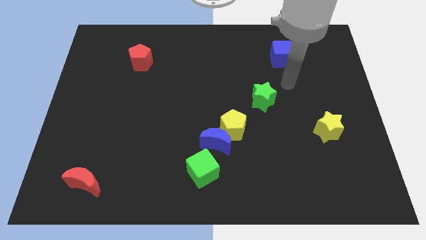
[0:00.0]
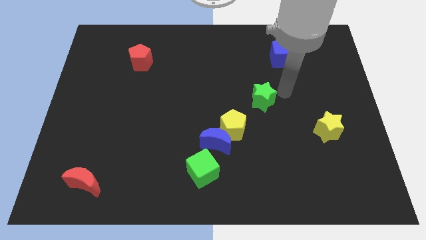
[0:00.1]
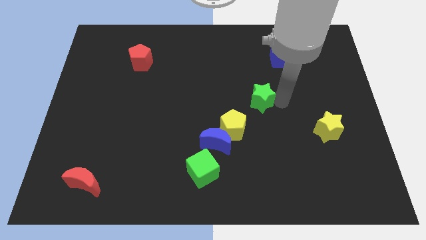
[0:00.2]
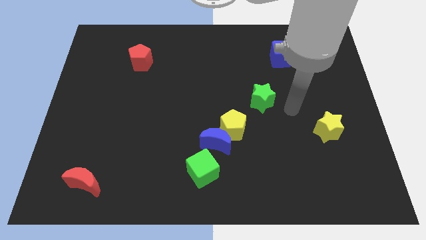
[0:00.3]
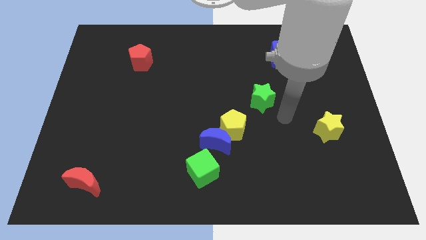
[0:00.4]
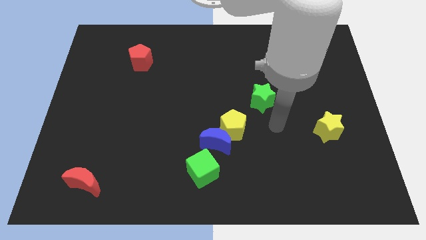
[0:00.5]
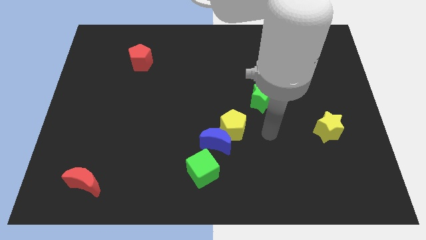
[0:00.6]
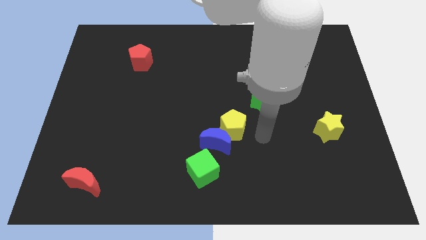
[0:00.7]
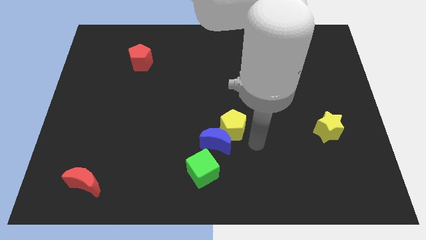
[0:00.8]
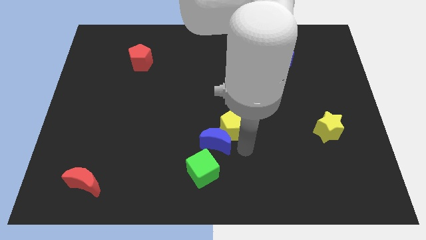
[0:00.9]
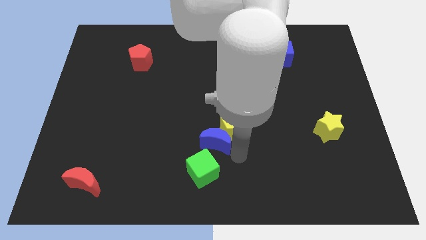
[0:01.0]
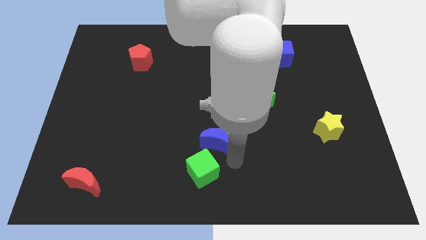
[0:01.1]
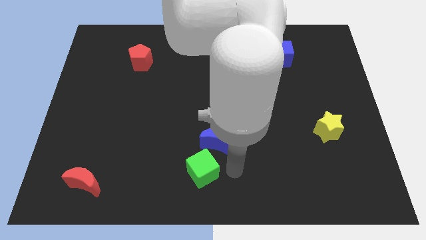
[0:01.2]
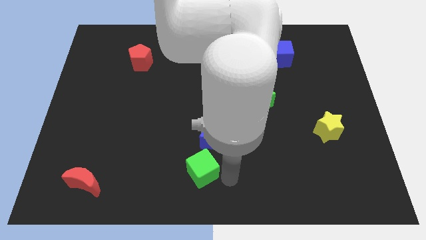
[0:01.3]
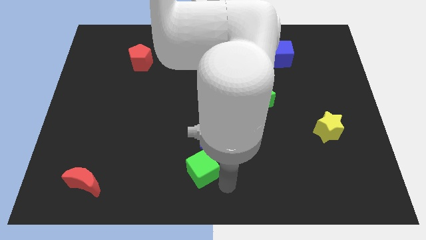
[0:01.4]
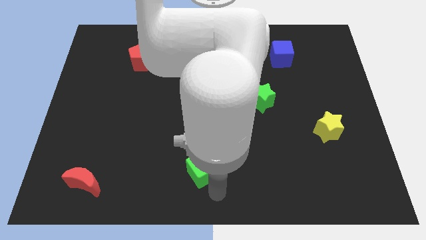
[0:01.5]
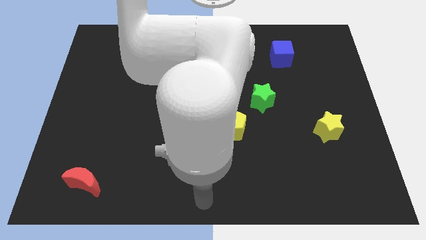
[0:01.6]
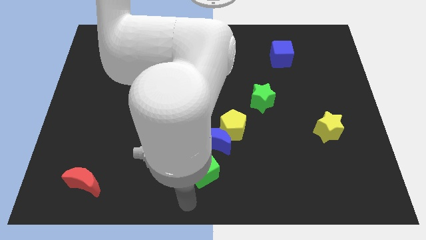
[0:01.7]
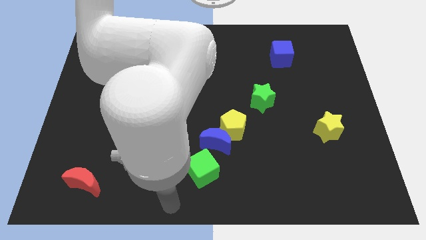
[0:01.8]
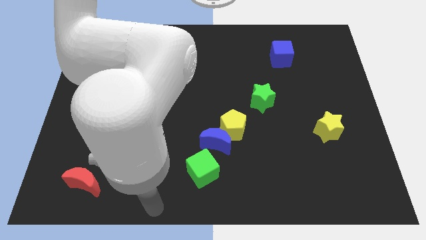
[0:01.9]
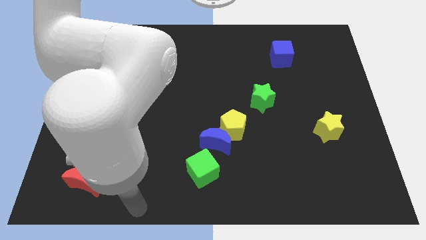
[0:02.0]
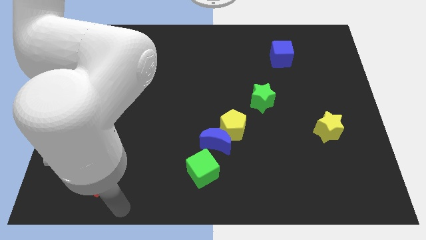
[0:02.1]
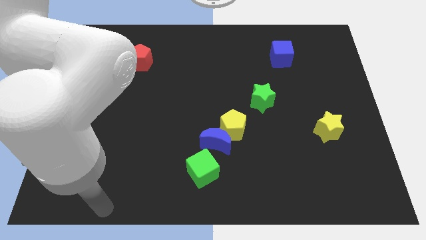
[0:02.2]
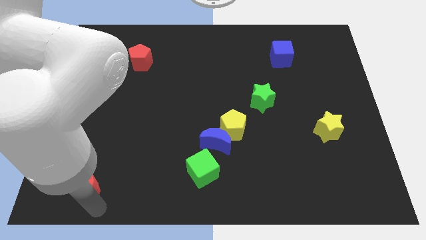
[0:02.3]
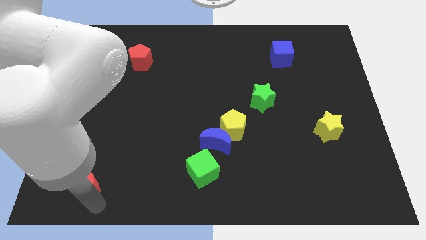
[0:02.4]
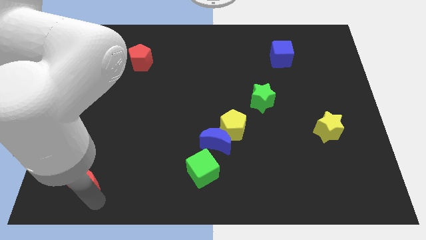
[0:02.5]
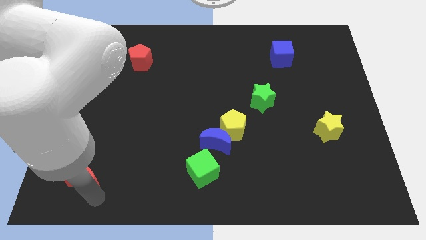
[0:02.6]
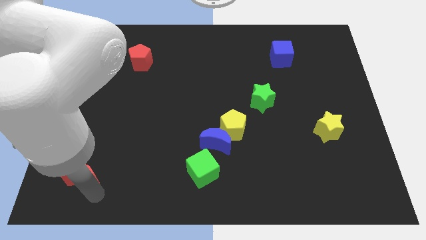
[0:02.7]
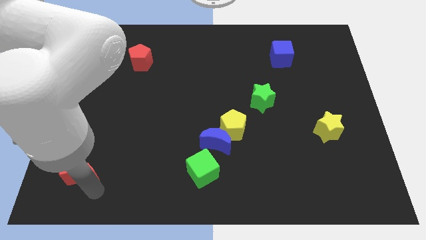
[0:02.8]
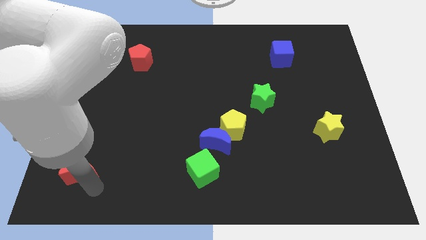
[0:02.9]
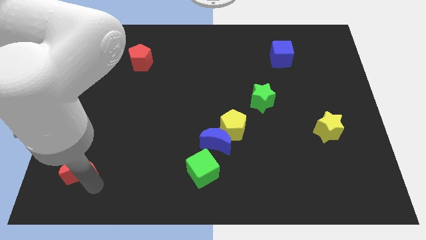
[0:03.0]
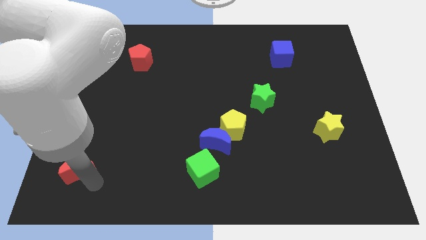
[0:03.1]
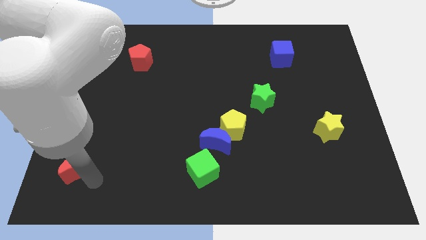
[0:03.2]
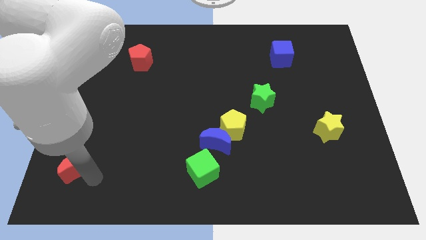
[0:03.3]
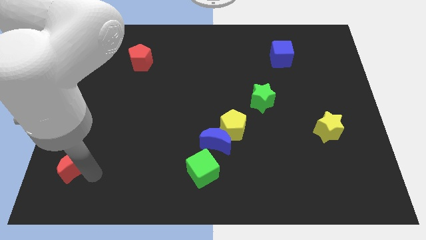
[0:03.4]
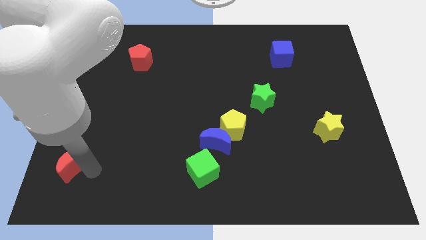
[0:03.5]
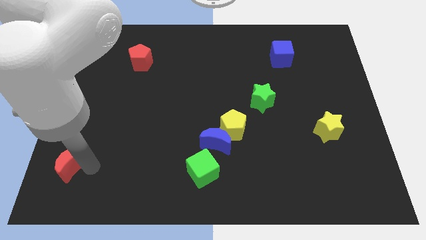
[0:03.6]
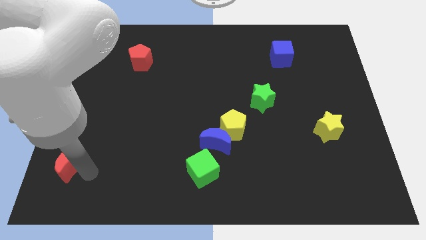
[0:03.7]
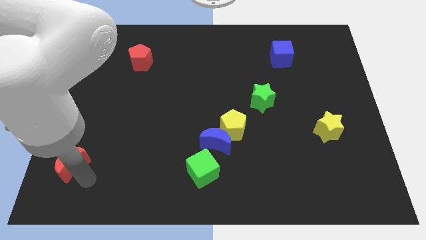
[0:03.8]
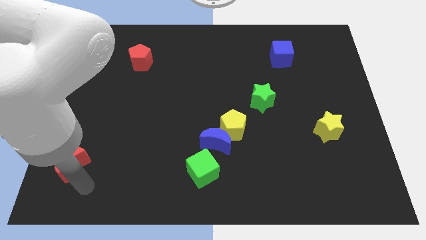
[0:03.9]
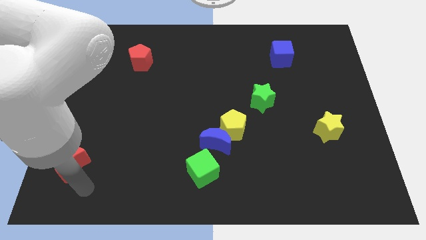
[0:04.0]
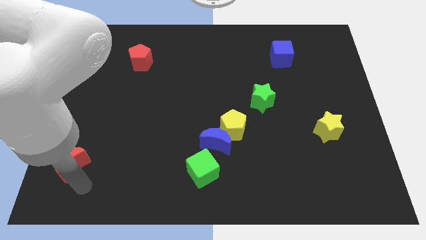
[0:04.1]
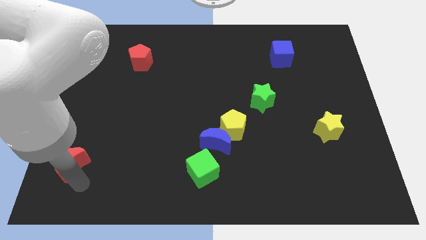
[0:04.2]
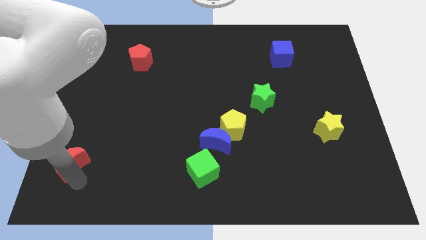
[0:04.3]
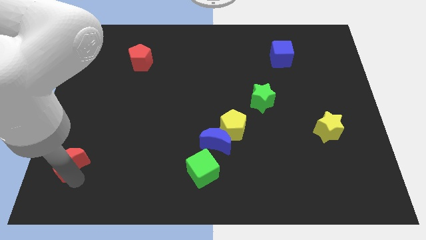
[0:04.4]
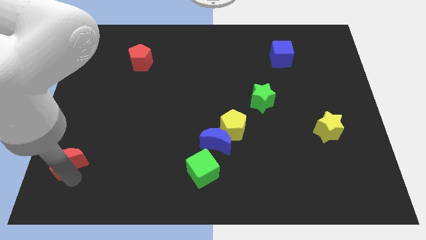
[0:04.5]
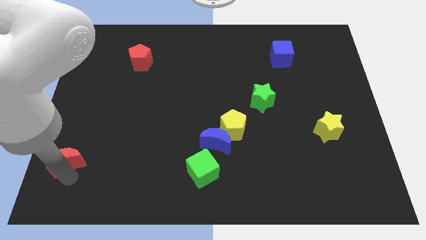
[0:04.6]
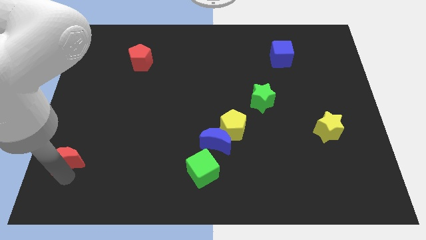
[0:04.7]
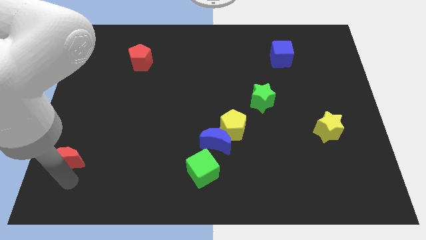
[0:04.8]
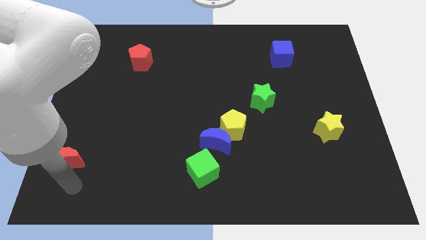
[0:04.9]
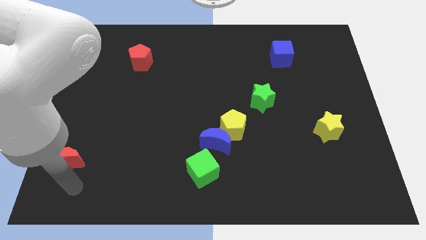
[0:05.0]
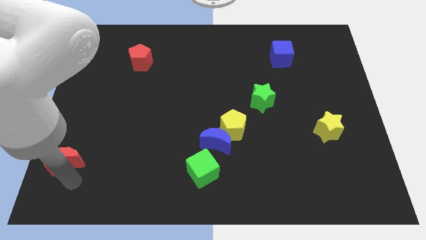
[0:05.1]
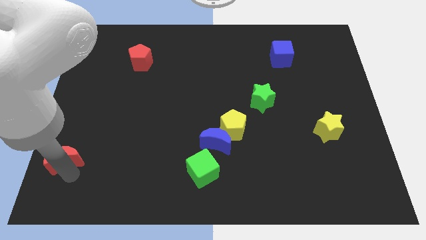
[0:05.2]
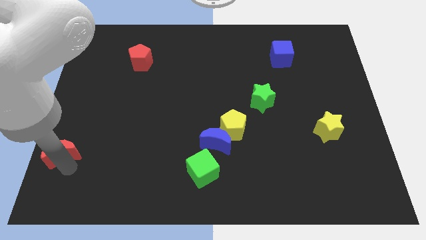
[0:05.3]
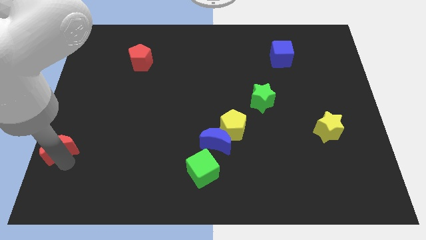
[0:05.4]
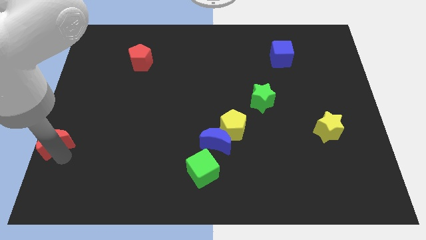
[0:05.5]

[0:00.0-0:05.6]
slide the red moon to the left side of the board
